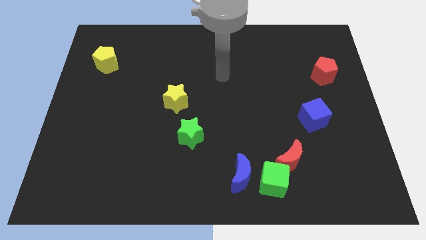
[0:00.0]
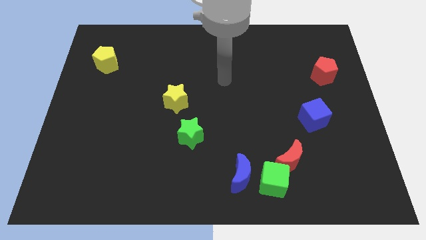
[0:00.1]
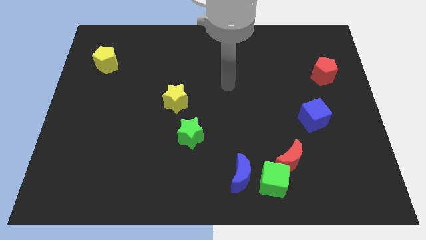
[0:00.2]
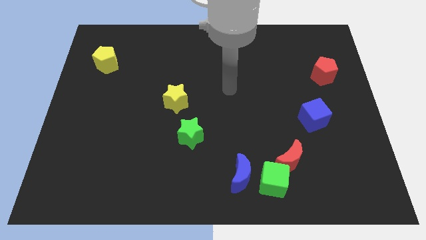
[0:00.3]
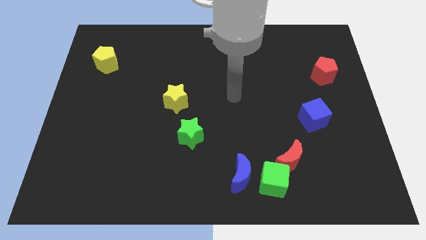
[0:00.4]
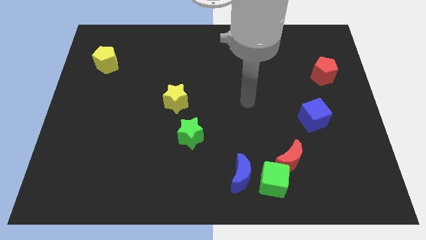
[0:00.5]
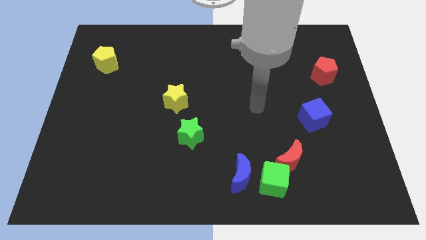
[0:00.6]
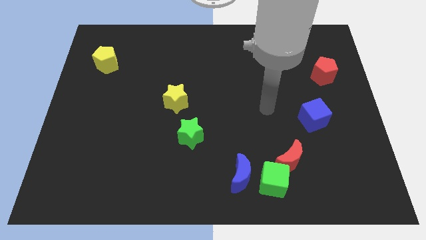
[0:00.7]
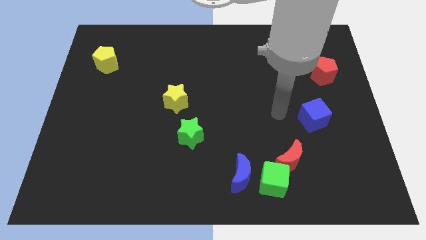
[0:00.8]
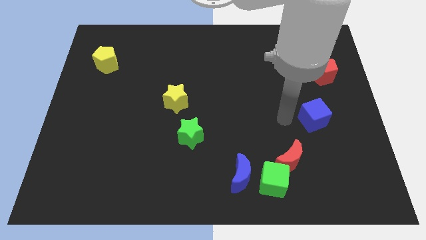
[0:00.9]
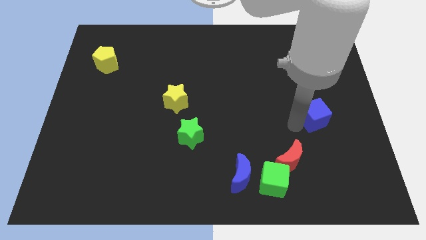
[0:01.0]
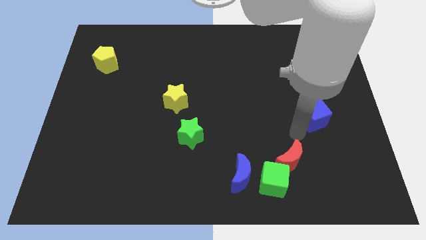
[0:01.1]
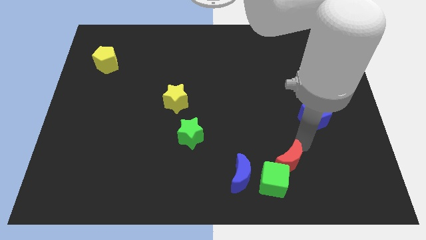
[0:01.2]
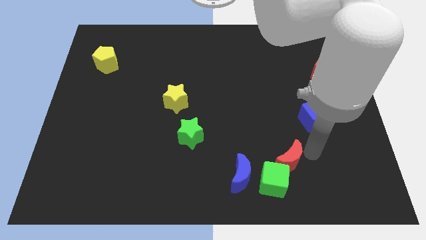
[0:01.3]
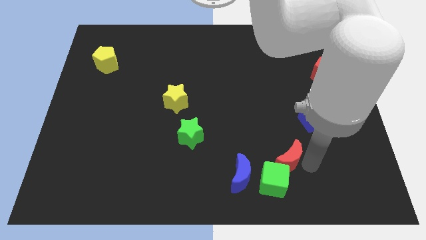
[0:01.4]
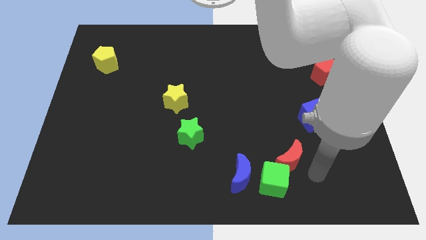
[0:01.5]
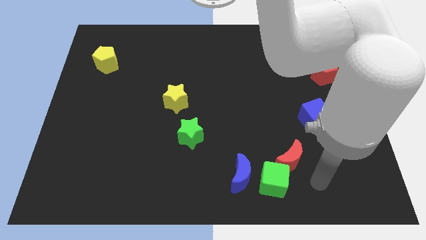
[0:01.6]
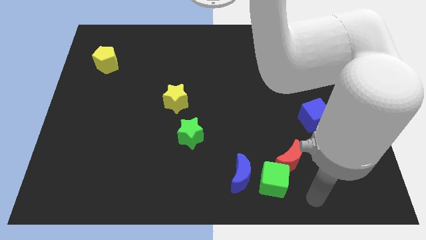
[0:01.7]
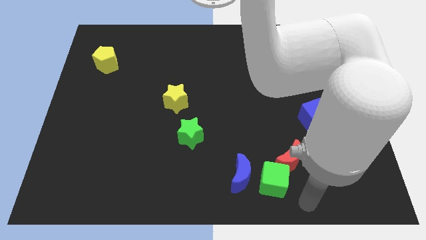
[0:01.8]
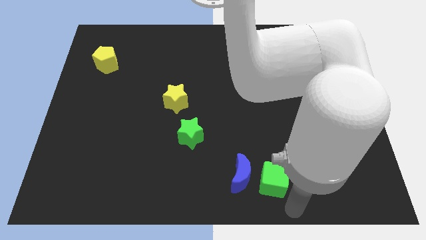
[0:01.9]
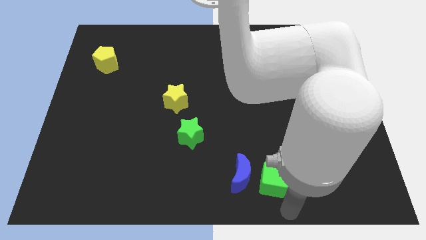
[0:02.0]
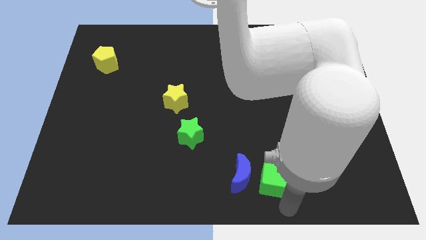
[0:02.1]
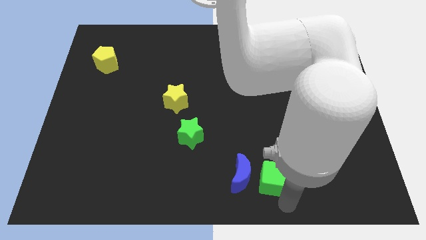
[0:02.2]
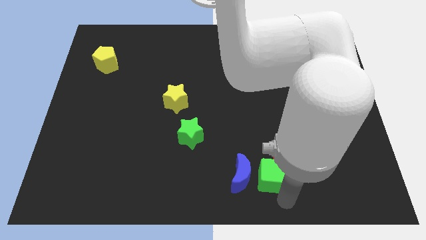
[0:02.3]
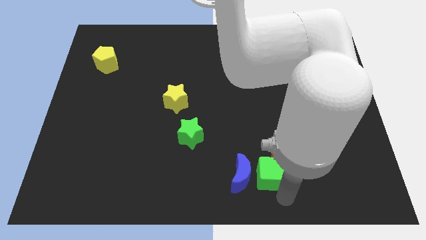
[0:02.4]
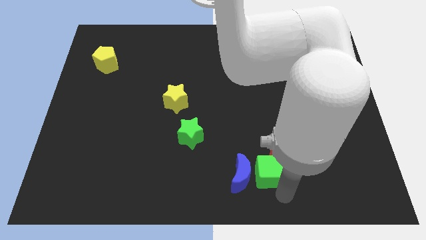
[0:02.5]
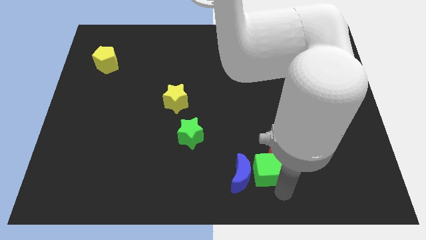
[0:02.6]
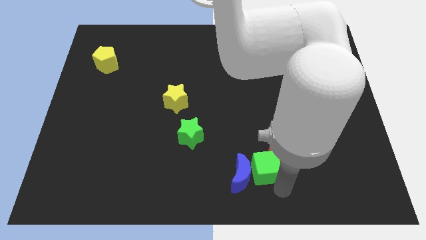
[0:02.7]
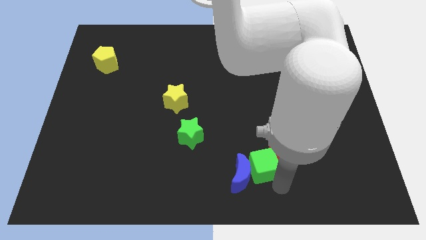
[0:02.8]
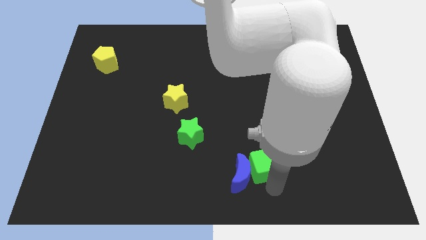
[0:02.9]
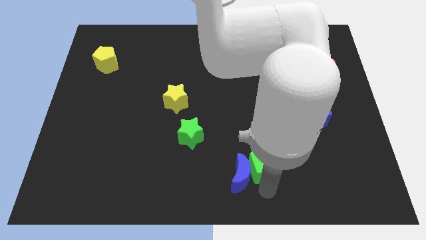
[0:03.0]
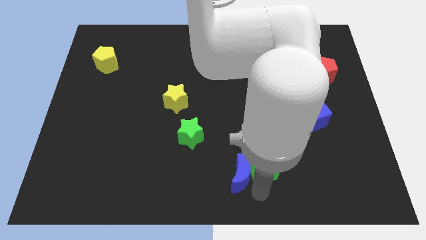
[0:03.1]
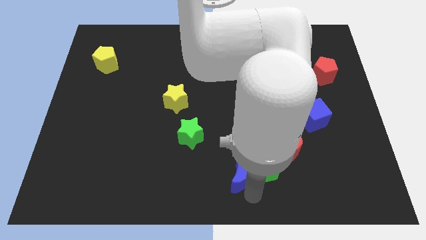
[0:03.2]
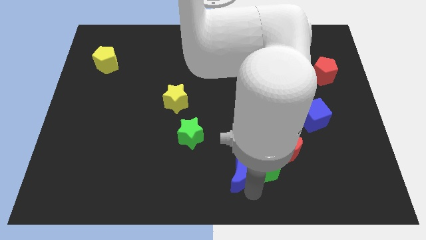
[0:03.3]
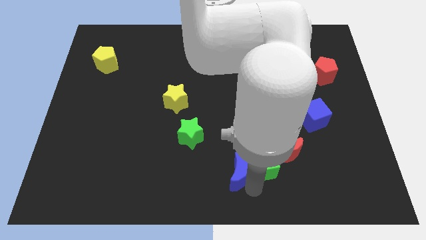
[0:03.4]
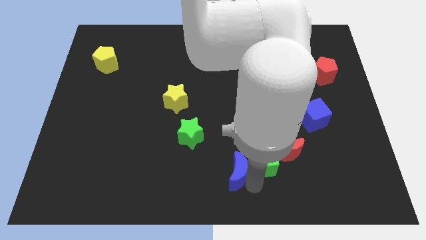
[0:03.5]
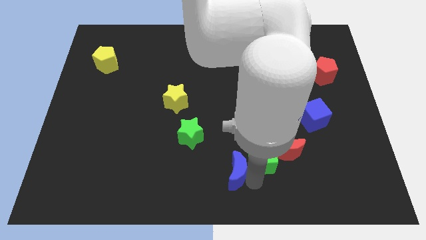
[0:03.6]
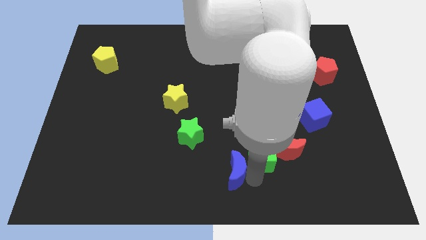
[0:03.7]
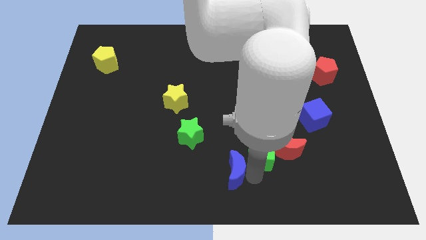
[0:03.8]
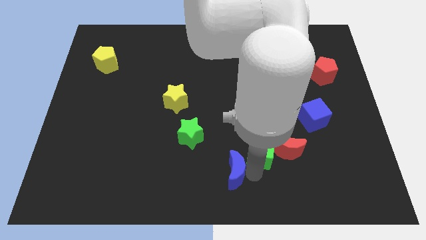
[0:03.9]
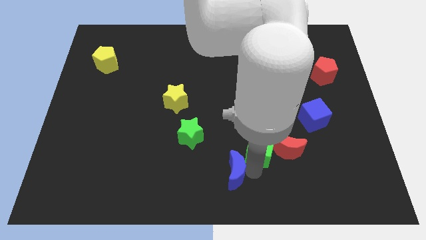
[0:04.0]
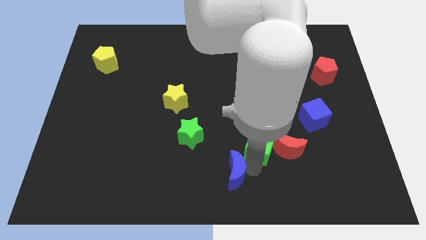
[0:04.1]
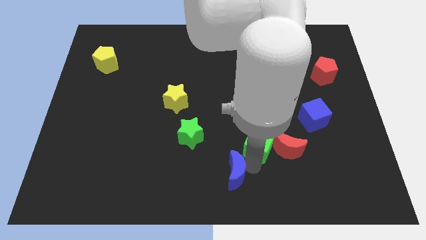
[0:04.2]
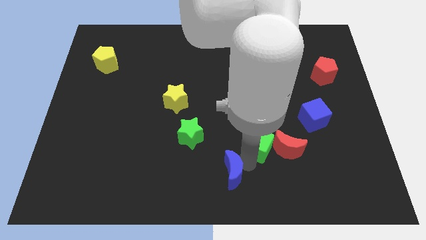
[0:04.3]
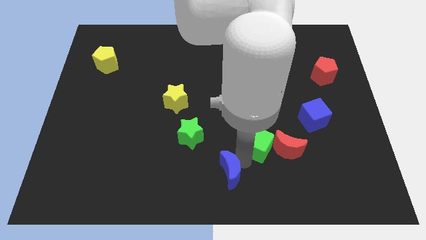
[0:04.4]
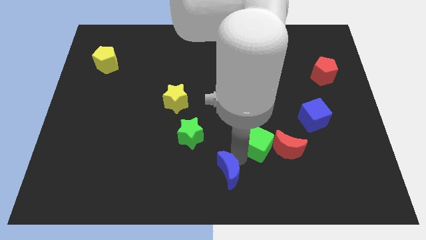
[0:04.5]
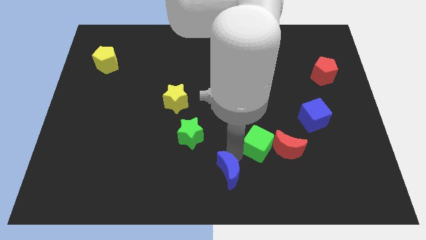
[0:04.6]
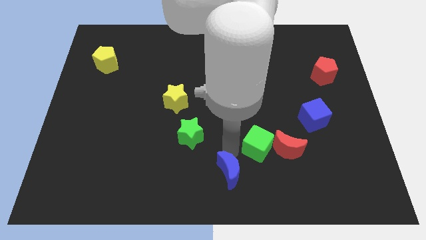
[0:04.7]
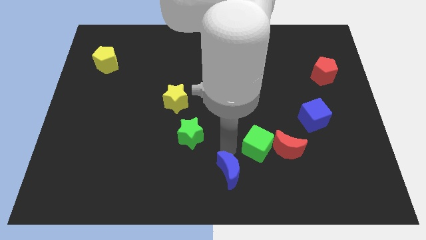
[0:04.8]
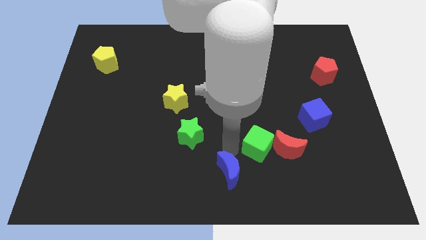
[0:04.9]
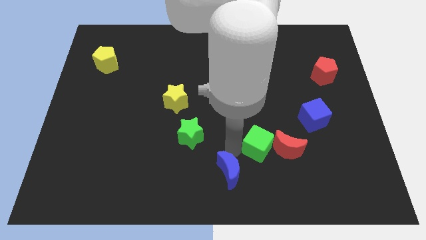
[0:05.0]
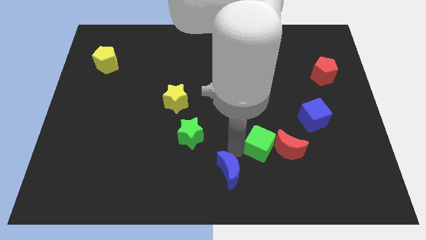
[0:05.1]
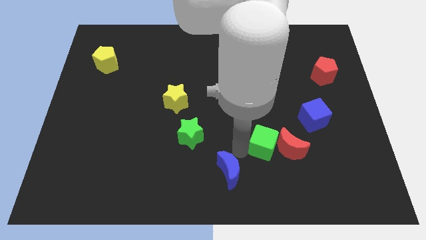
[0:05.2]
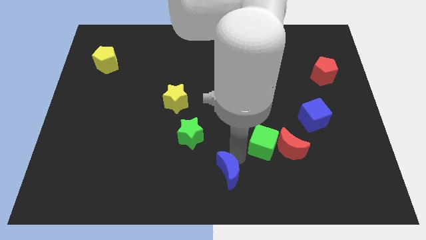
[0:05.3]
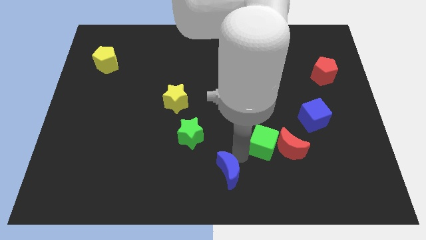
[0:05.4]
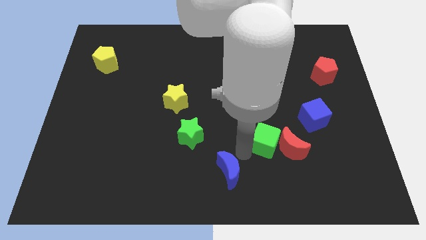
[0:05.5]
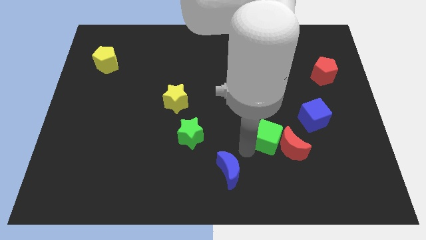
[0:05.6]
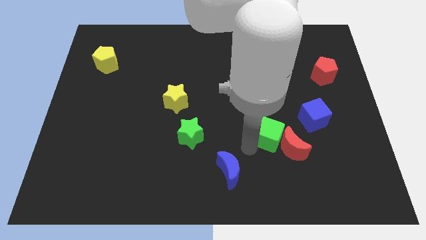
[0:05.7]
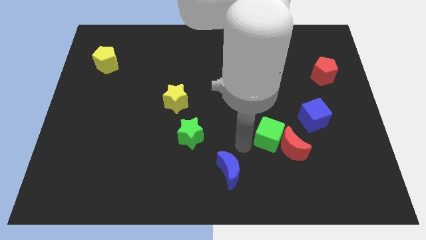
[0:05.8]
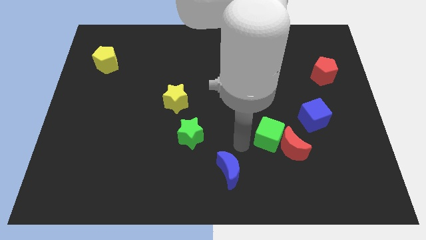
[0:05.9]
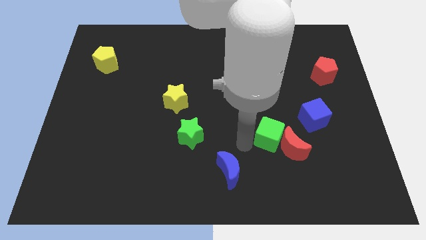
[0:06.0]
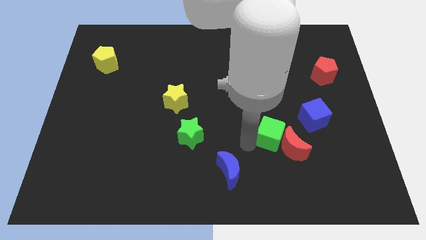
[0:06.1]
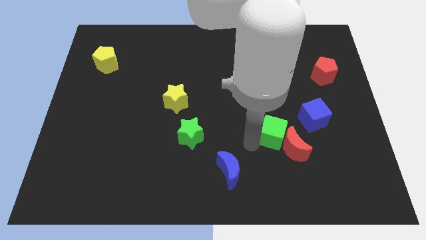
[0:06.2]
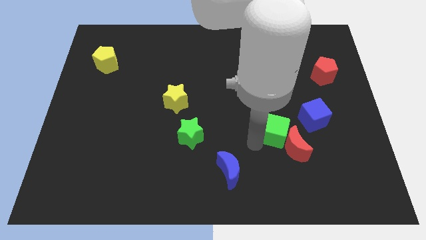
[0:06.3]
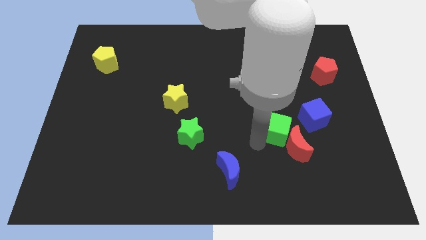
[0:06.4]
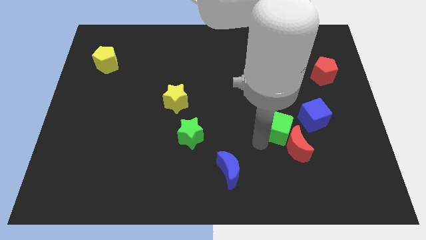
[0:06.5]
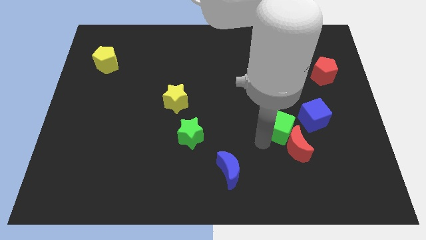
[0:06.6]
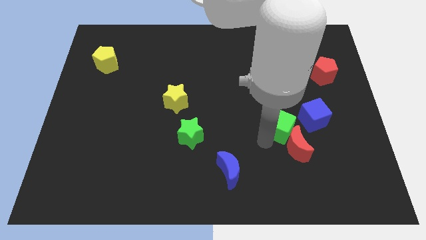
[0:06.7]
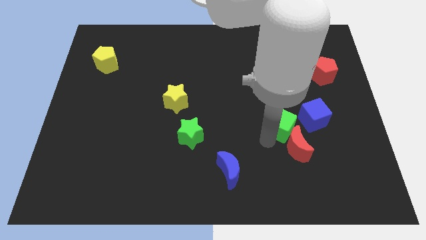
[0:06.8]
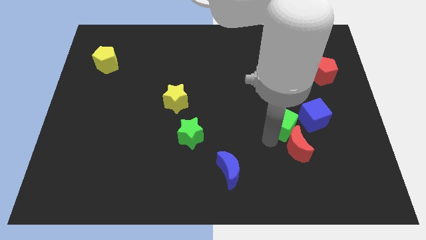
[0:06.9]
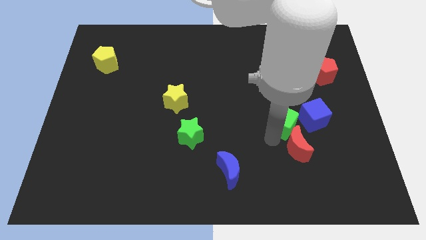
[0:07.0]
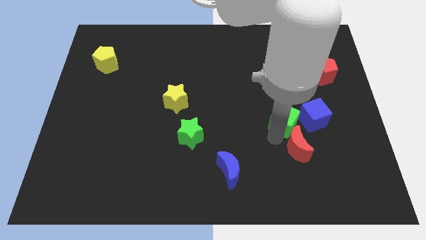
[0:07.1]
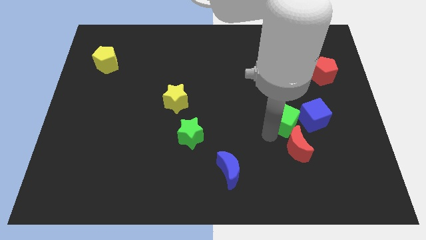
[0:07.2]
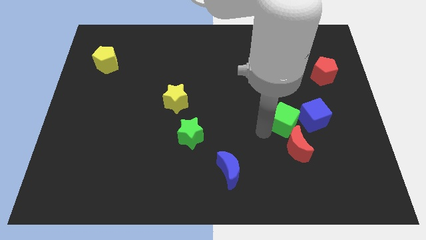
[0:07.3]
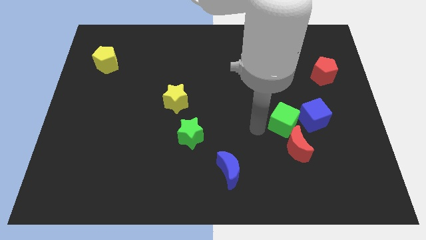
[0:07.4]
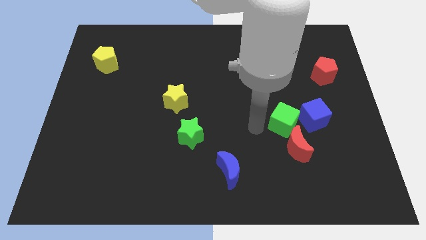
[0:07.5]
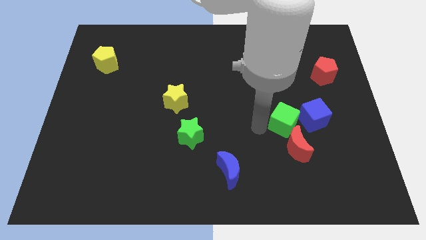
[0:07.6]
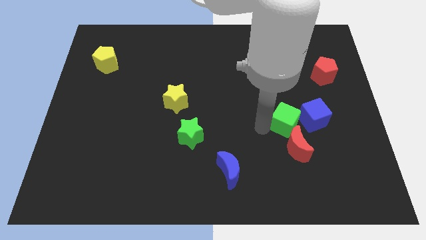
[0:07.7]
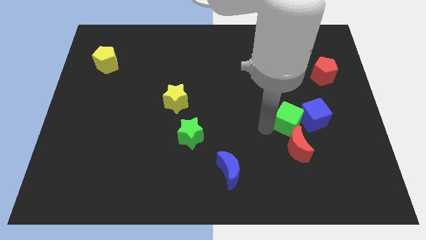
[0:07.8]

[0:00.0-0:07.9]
put the green cube towards the blue cube
